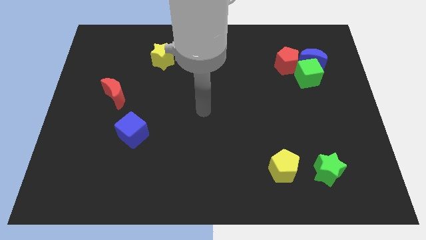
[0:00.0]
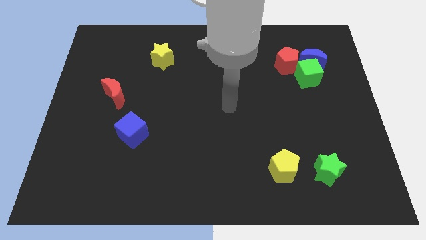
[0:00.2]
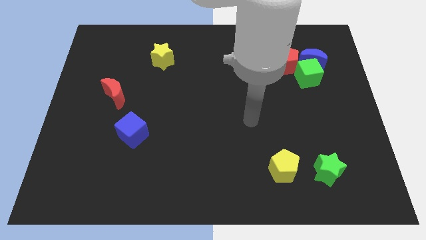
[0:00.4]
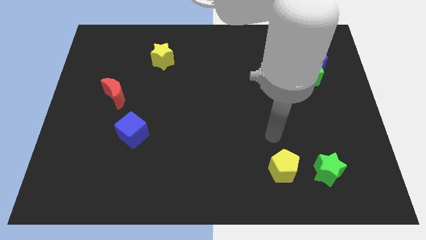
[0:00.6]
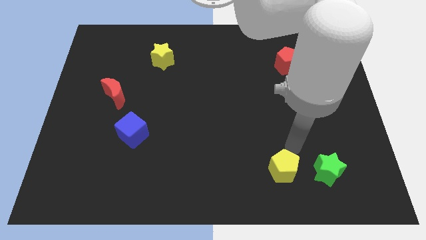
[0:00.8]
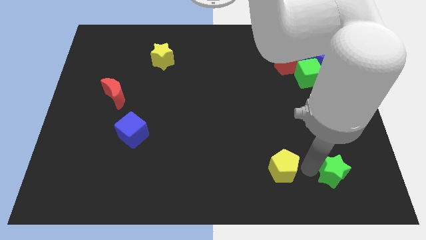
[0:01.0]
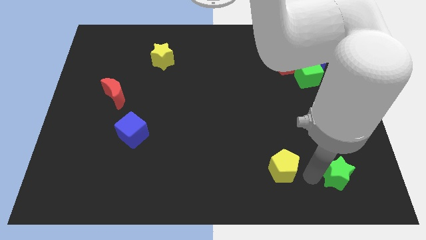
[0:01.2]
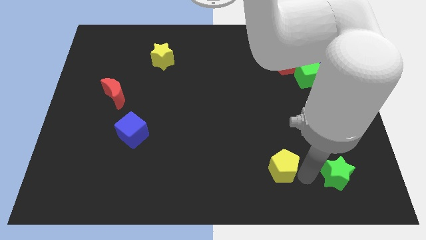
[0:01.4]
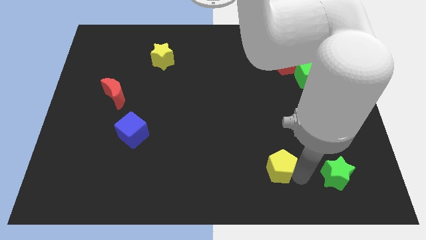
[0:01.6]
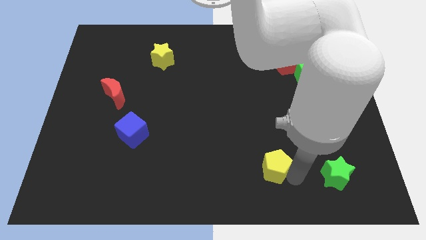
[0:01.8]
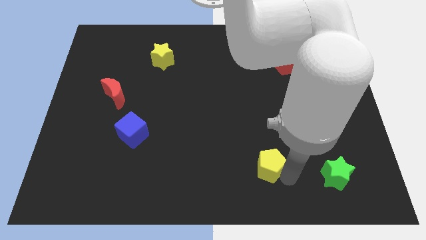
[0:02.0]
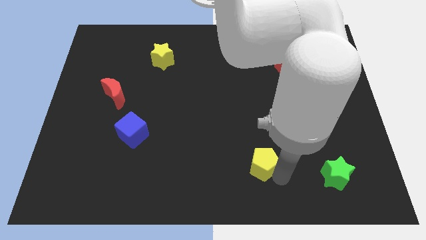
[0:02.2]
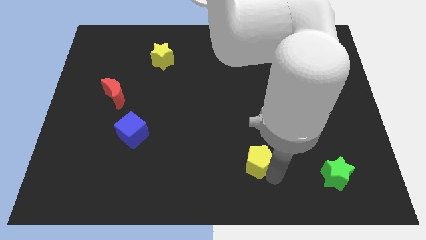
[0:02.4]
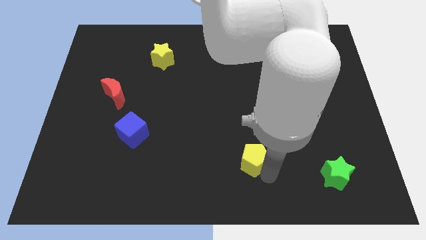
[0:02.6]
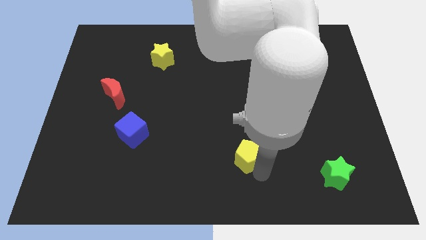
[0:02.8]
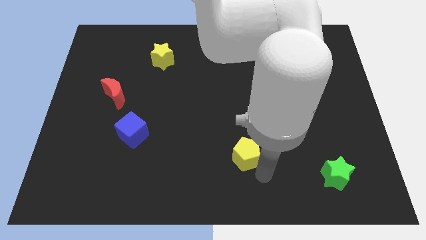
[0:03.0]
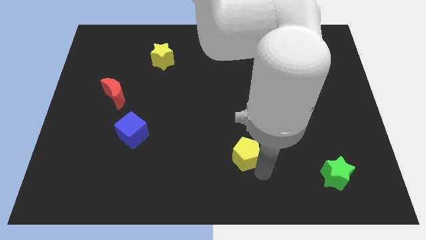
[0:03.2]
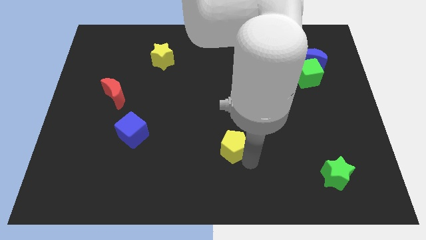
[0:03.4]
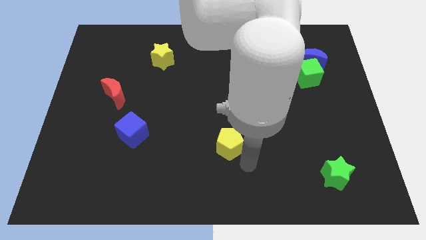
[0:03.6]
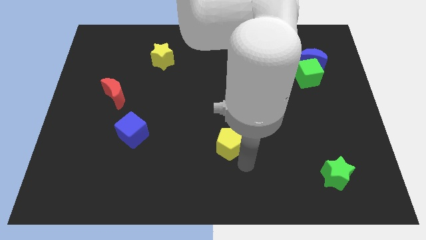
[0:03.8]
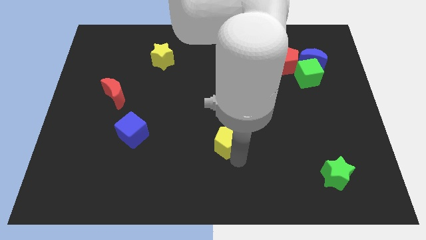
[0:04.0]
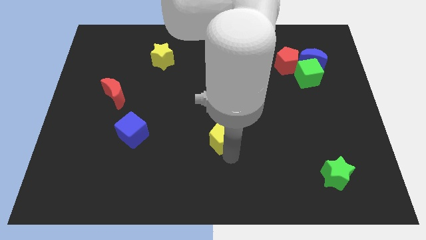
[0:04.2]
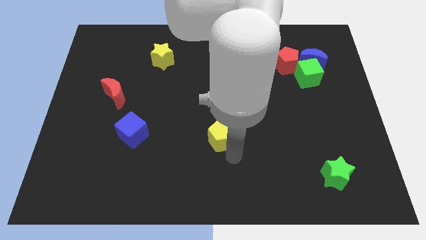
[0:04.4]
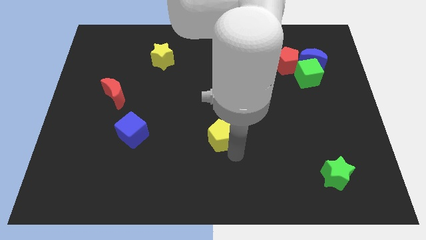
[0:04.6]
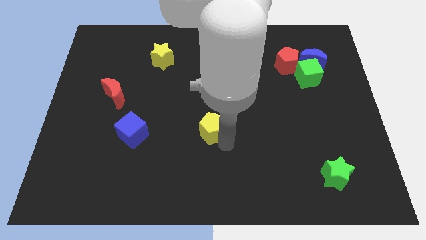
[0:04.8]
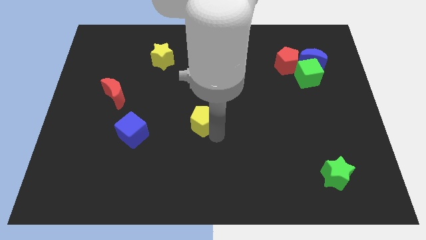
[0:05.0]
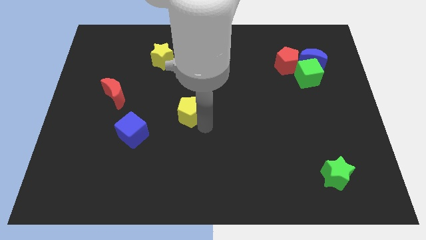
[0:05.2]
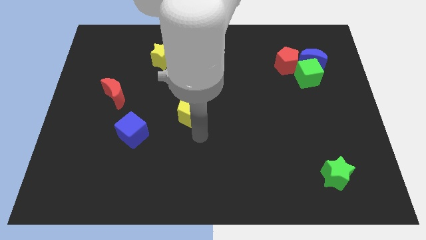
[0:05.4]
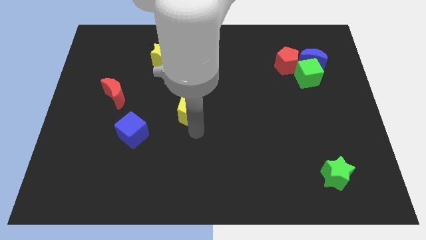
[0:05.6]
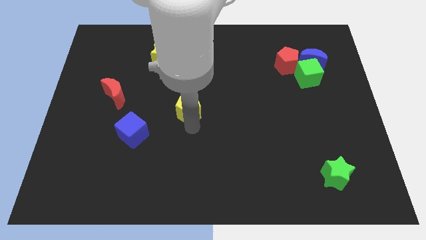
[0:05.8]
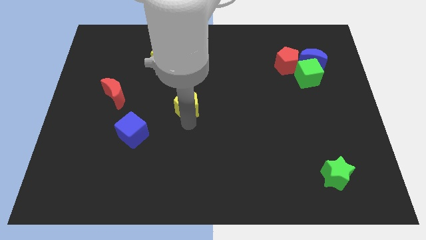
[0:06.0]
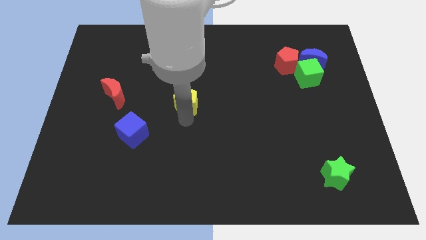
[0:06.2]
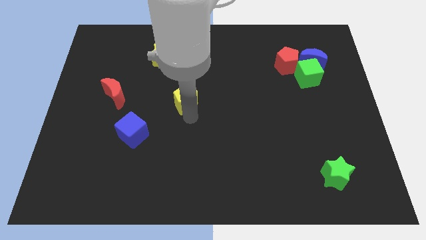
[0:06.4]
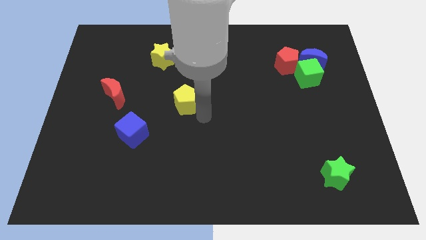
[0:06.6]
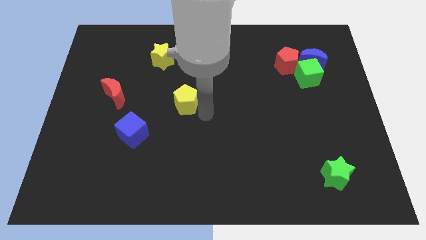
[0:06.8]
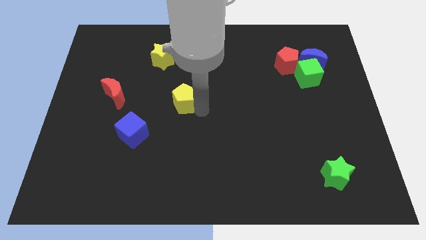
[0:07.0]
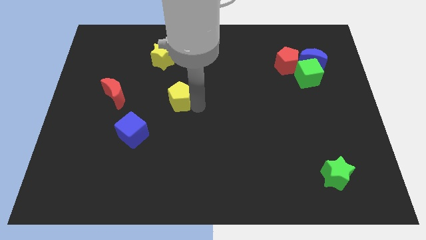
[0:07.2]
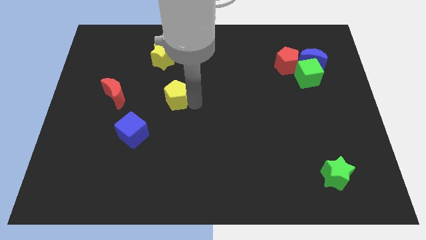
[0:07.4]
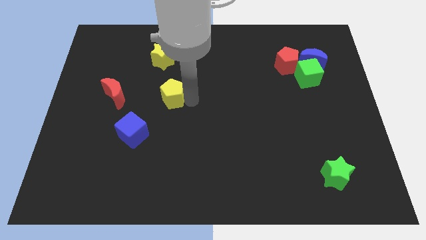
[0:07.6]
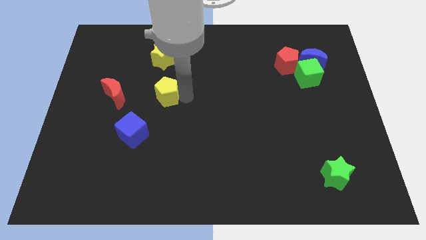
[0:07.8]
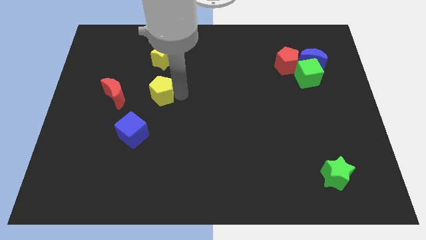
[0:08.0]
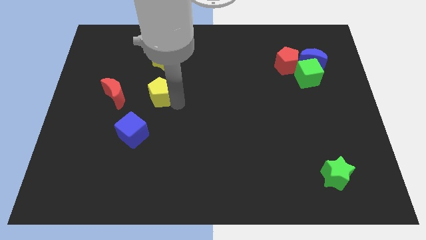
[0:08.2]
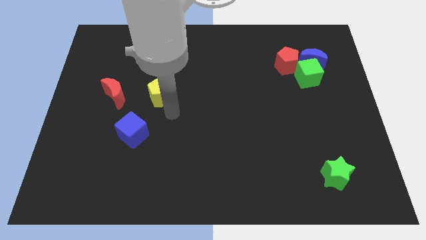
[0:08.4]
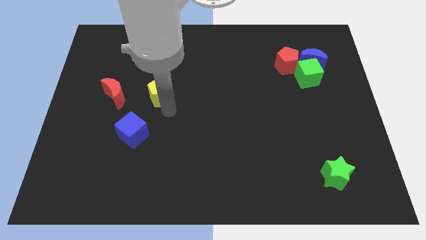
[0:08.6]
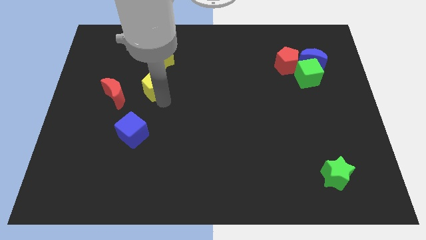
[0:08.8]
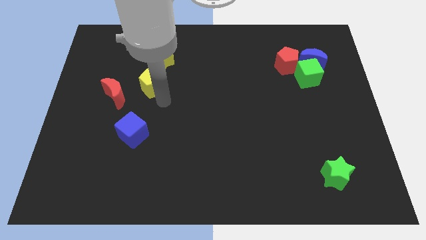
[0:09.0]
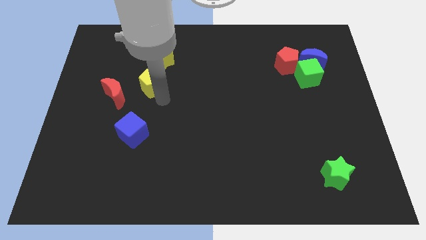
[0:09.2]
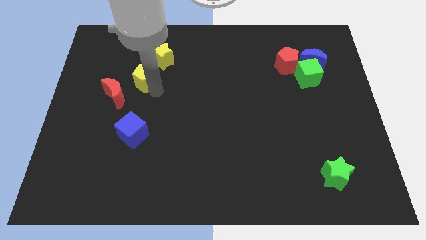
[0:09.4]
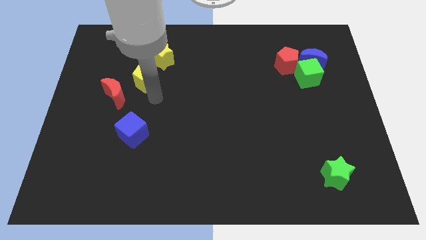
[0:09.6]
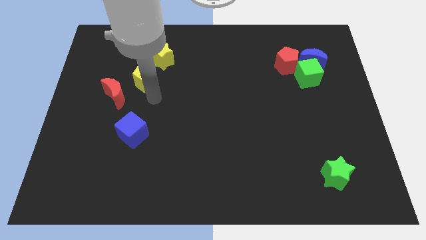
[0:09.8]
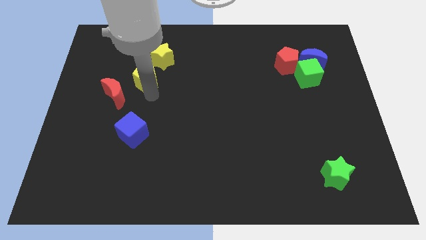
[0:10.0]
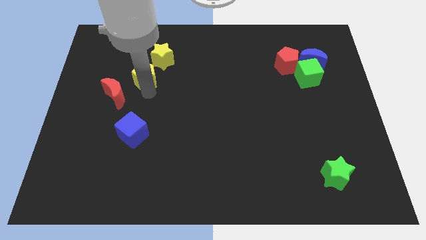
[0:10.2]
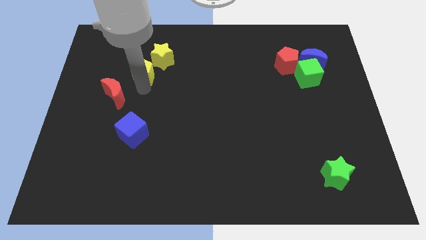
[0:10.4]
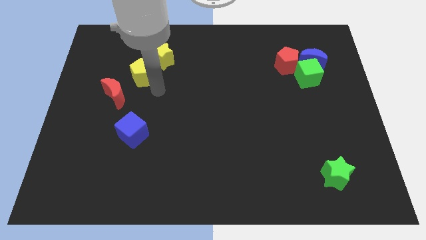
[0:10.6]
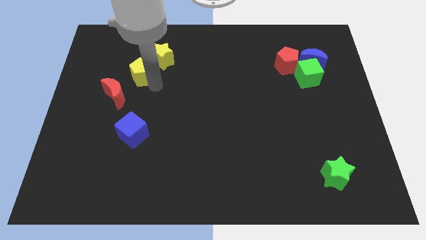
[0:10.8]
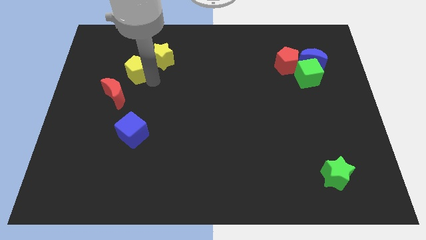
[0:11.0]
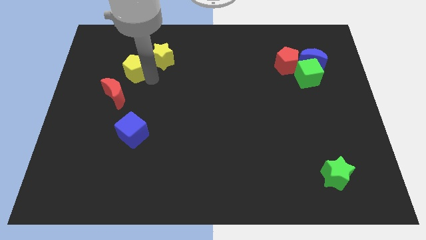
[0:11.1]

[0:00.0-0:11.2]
push the yellow pentagon left of the yellow star

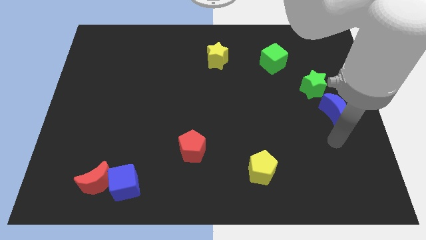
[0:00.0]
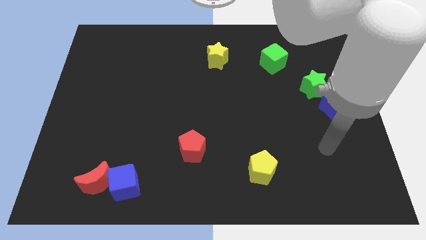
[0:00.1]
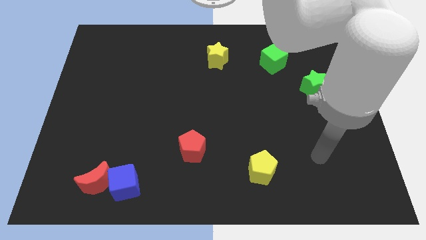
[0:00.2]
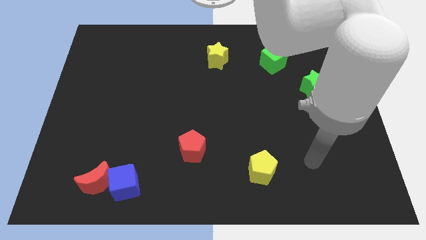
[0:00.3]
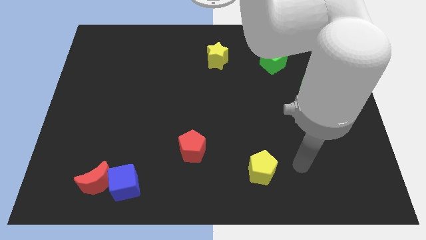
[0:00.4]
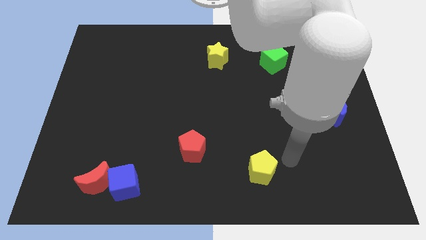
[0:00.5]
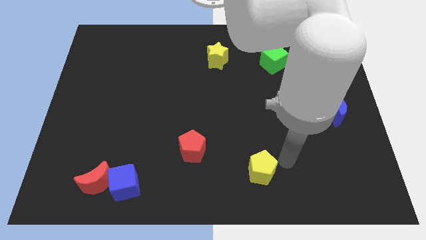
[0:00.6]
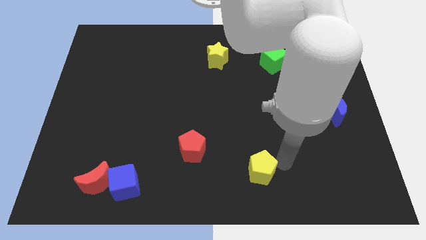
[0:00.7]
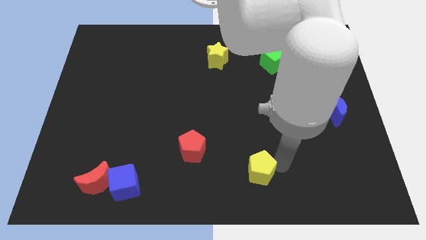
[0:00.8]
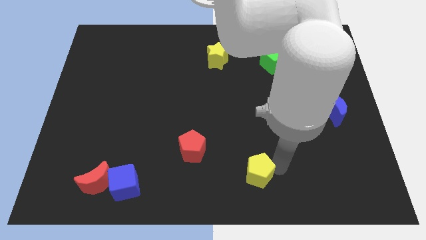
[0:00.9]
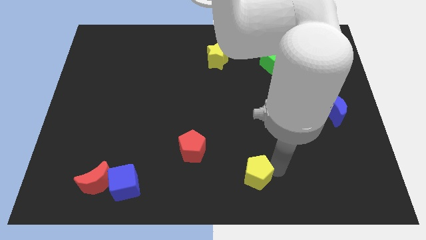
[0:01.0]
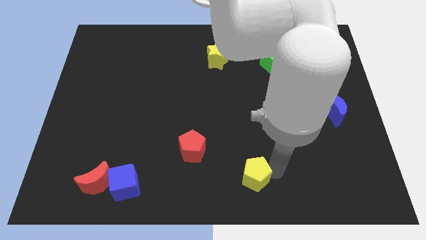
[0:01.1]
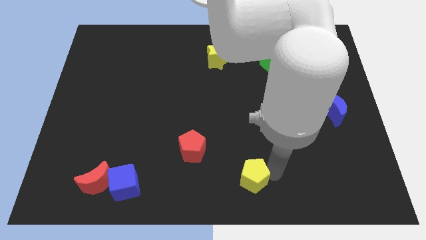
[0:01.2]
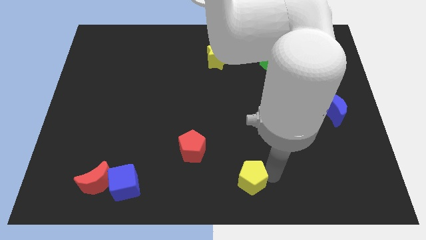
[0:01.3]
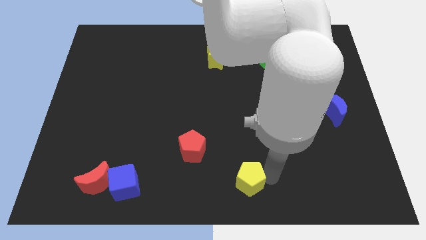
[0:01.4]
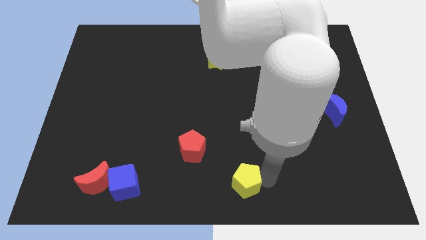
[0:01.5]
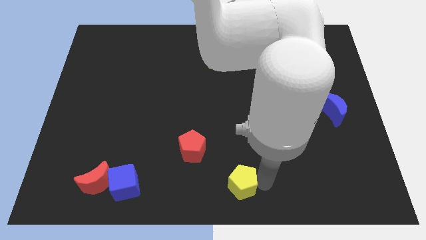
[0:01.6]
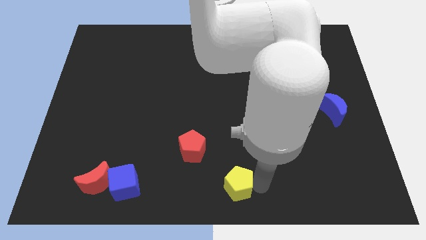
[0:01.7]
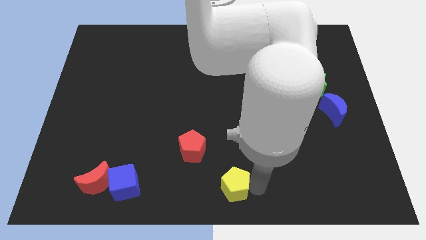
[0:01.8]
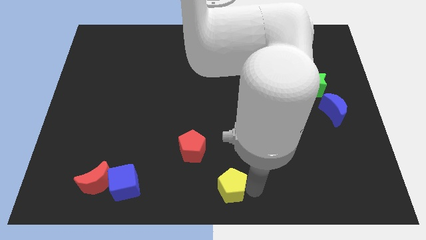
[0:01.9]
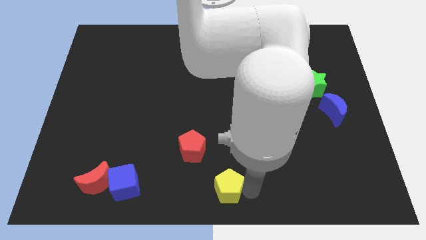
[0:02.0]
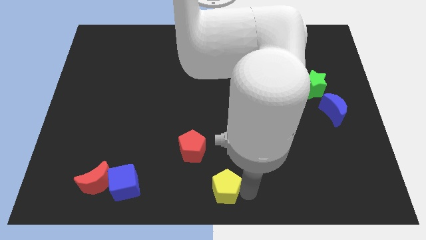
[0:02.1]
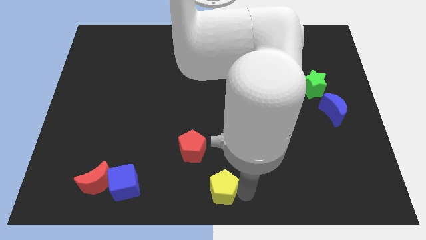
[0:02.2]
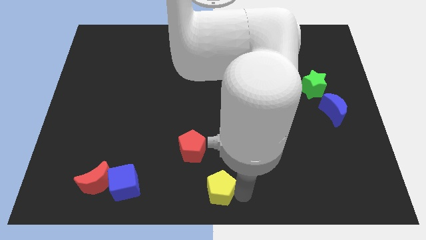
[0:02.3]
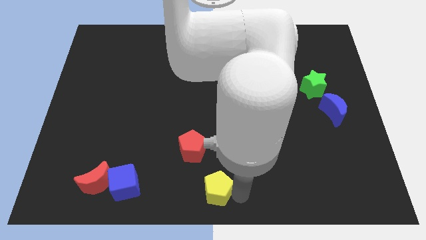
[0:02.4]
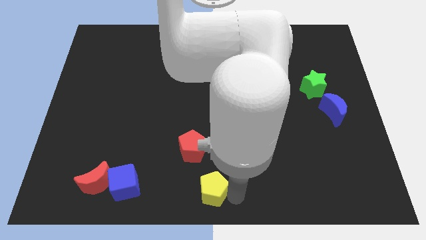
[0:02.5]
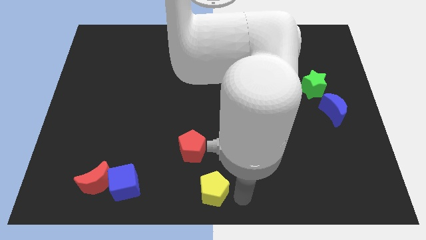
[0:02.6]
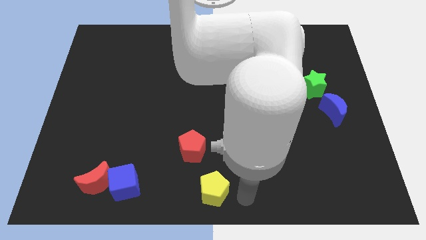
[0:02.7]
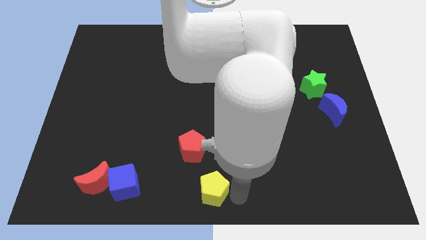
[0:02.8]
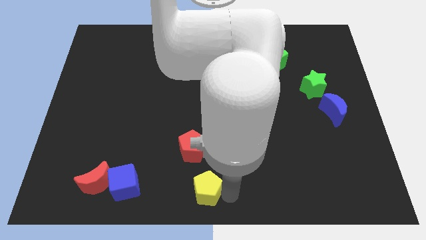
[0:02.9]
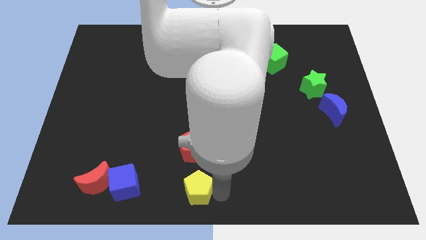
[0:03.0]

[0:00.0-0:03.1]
push the yellow pentagon right of the blue cube
